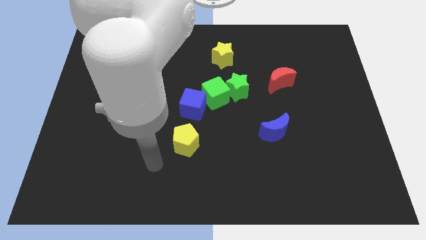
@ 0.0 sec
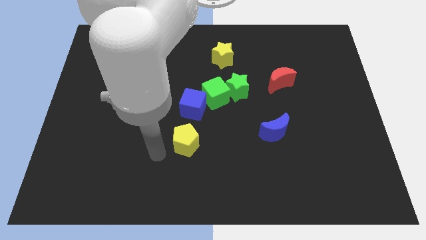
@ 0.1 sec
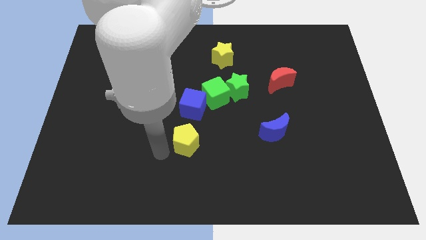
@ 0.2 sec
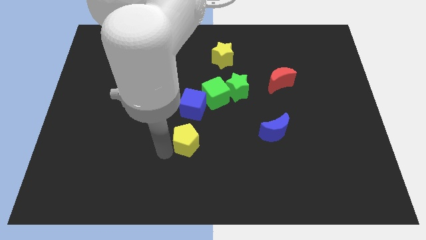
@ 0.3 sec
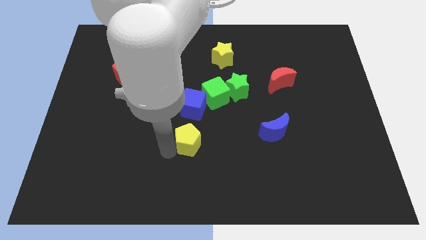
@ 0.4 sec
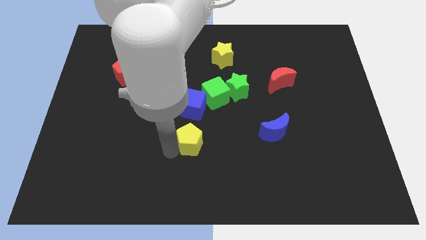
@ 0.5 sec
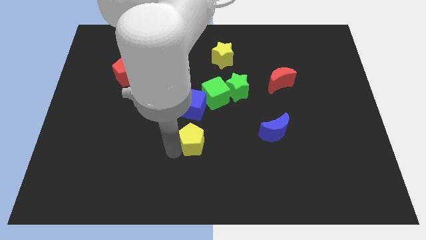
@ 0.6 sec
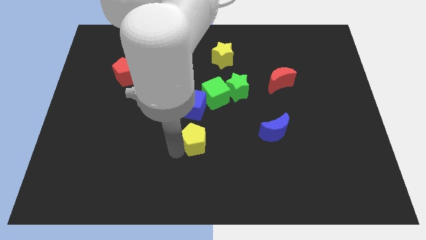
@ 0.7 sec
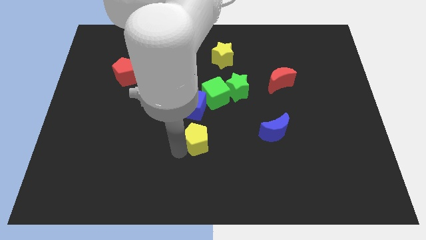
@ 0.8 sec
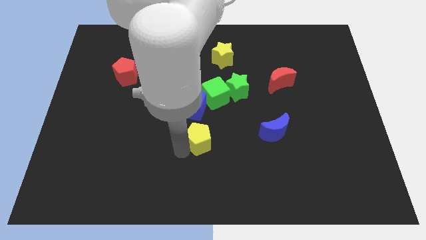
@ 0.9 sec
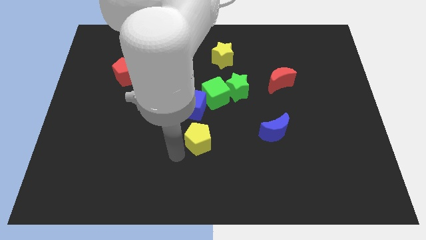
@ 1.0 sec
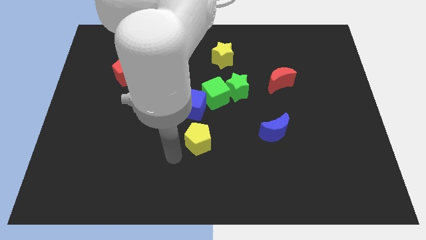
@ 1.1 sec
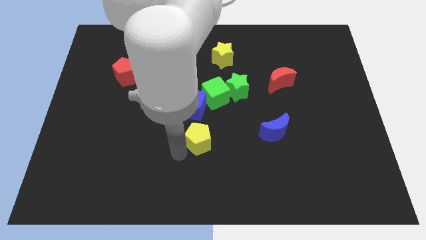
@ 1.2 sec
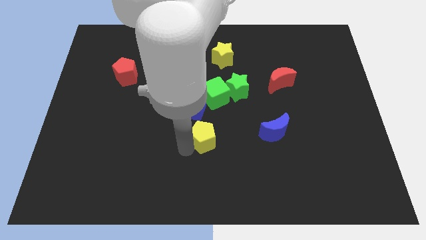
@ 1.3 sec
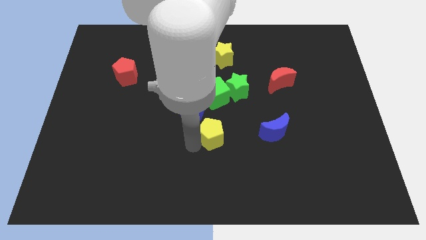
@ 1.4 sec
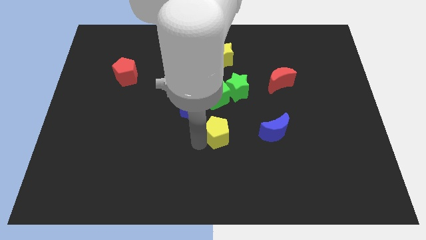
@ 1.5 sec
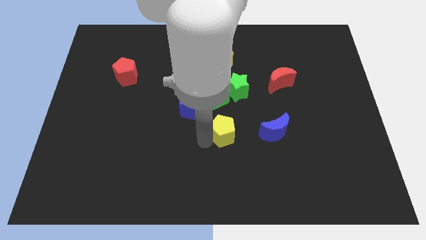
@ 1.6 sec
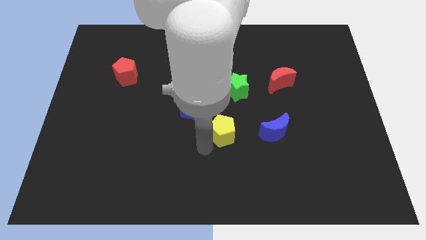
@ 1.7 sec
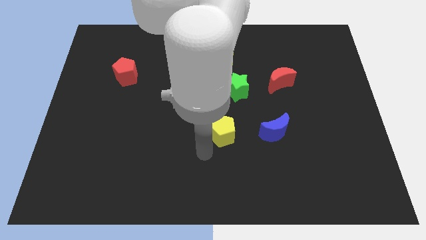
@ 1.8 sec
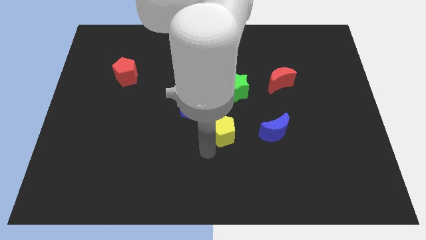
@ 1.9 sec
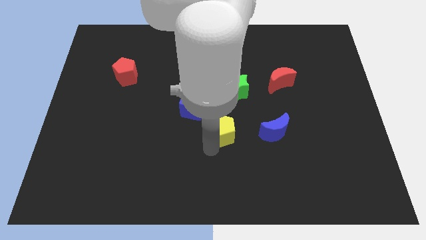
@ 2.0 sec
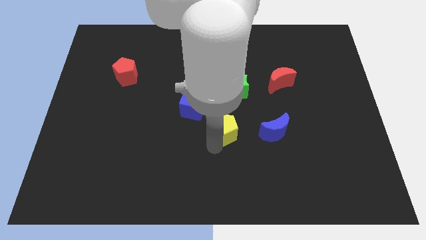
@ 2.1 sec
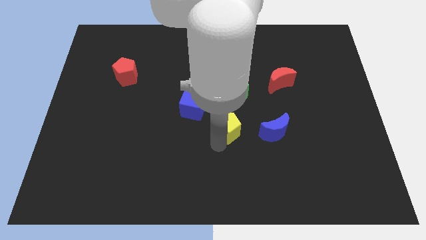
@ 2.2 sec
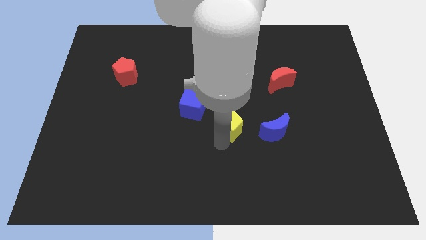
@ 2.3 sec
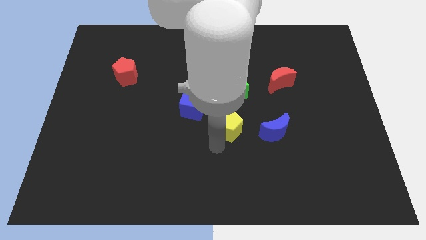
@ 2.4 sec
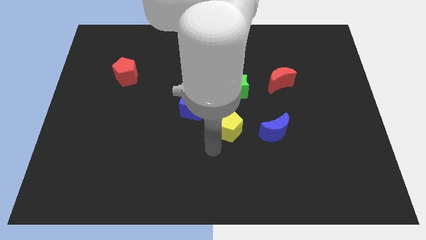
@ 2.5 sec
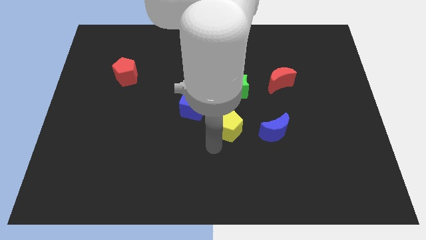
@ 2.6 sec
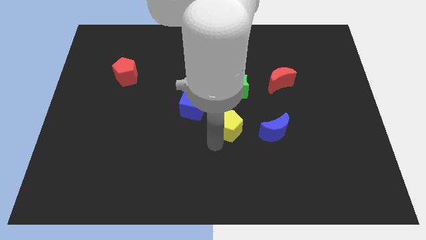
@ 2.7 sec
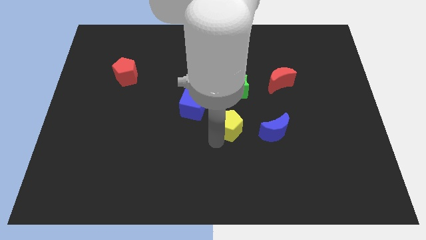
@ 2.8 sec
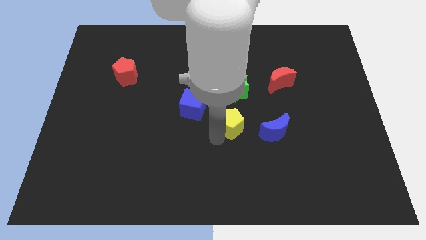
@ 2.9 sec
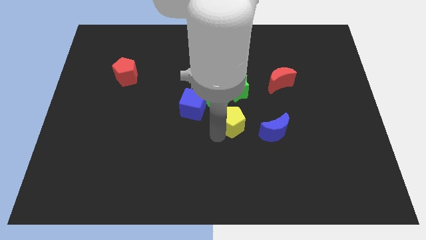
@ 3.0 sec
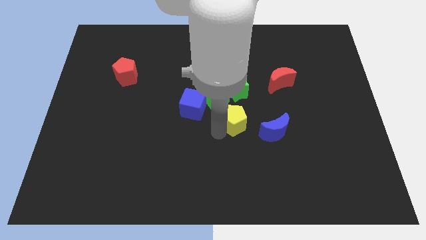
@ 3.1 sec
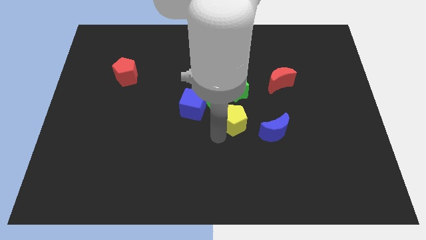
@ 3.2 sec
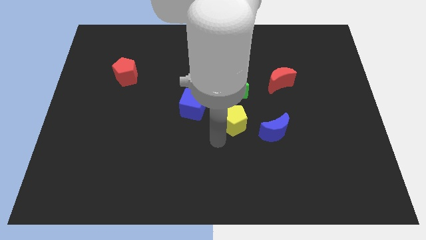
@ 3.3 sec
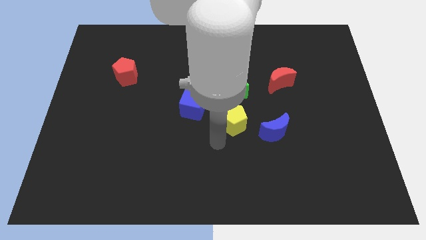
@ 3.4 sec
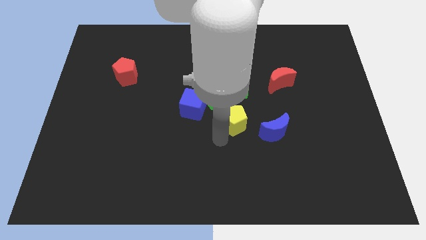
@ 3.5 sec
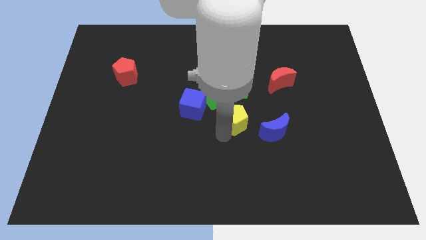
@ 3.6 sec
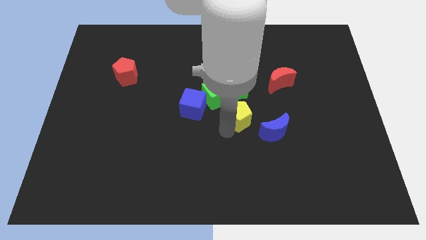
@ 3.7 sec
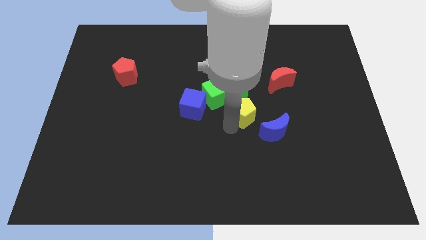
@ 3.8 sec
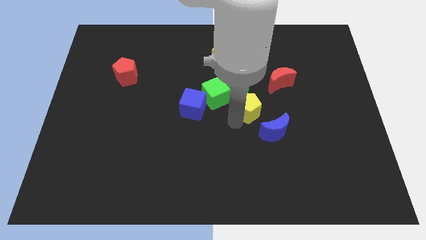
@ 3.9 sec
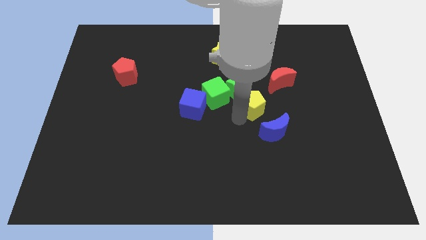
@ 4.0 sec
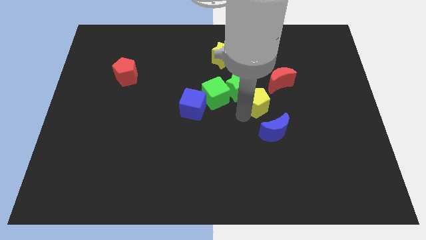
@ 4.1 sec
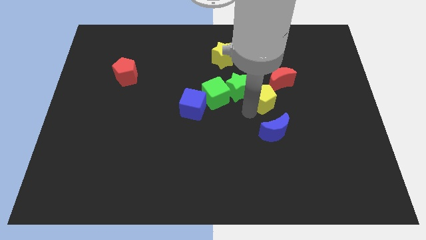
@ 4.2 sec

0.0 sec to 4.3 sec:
push the yellow pentagon diagonally upwards and to the right

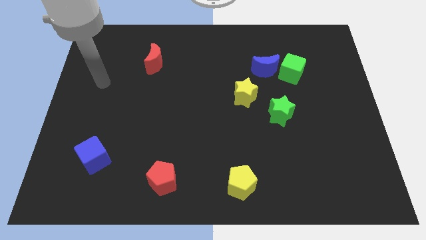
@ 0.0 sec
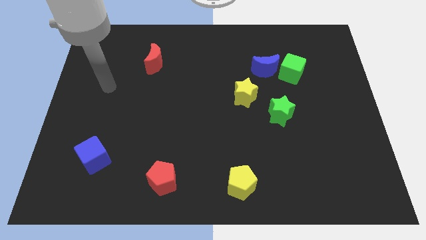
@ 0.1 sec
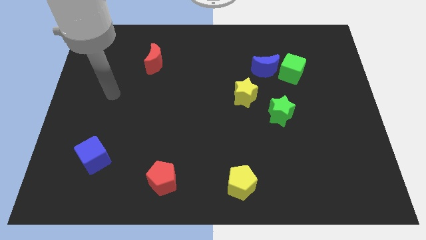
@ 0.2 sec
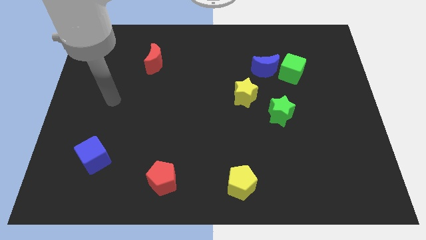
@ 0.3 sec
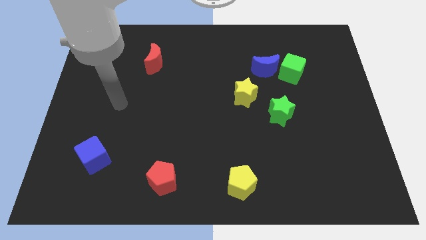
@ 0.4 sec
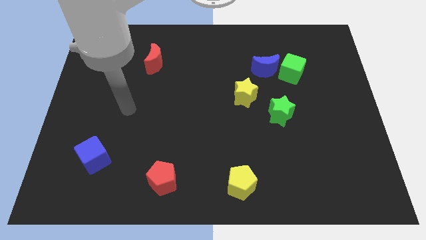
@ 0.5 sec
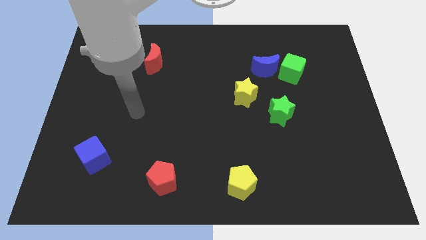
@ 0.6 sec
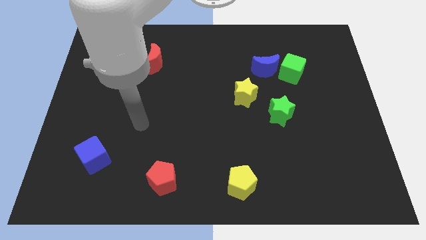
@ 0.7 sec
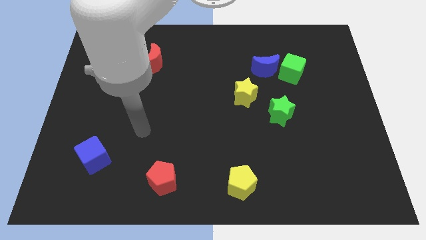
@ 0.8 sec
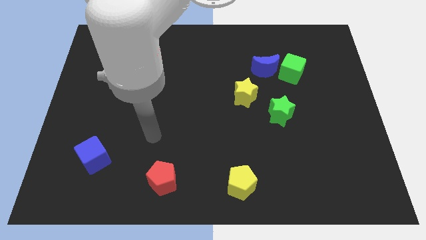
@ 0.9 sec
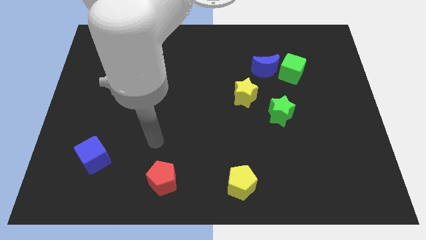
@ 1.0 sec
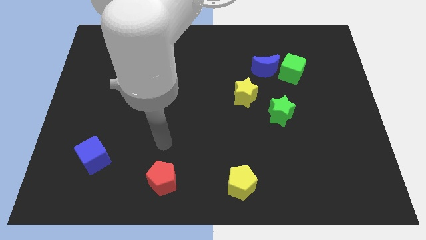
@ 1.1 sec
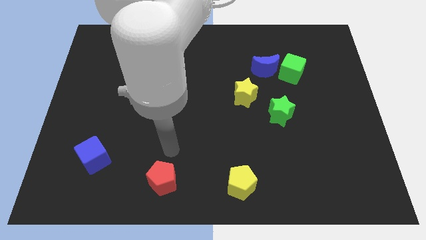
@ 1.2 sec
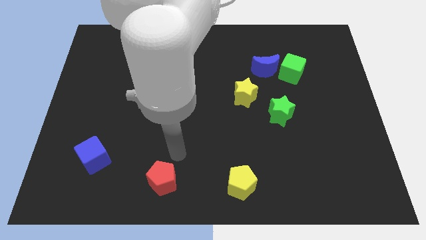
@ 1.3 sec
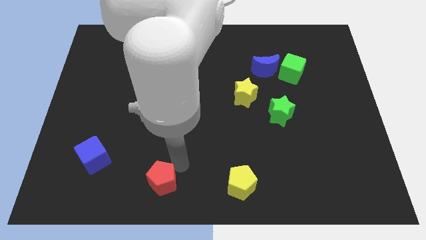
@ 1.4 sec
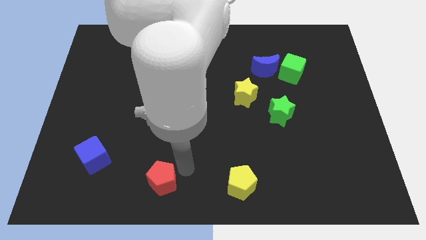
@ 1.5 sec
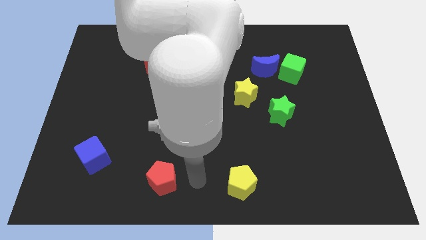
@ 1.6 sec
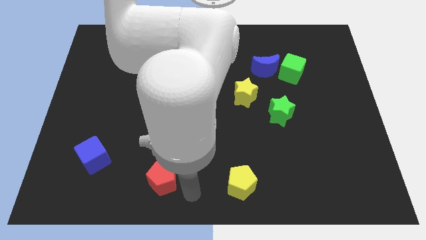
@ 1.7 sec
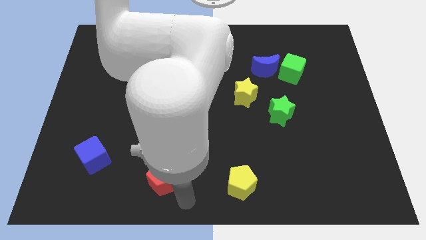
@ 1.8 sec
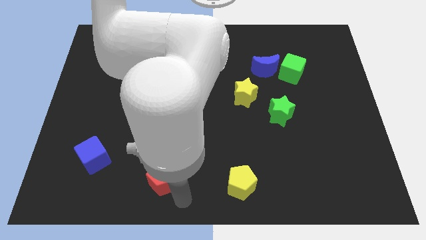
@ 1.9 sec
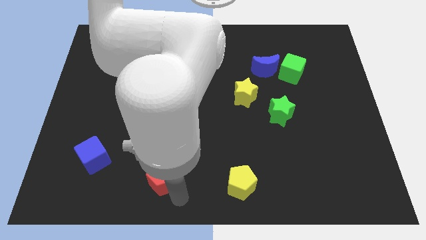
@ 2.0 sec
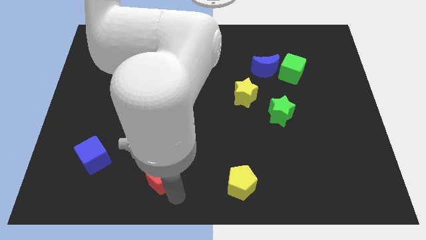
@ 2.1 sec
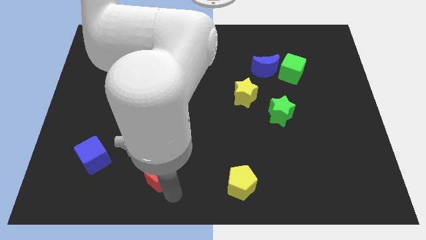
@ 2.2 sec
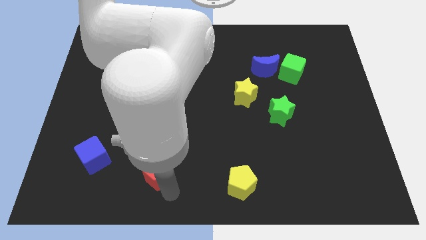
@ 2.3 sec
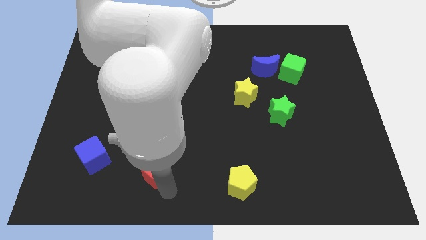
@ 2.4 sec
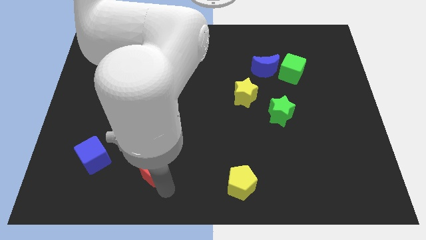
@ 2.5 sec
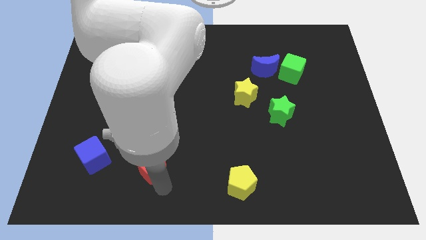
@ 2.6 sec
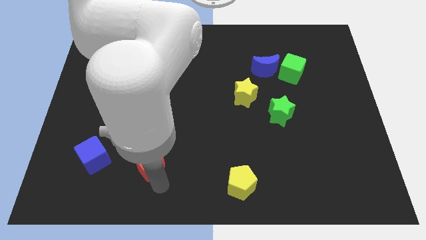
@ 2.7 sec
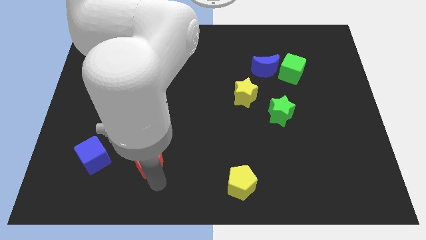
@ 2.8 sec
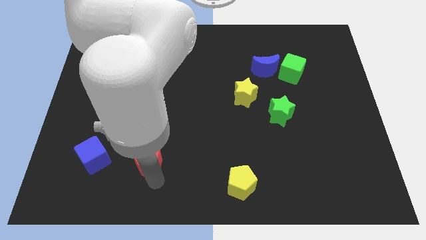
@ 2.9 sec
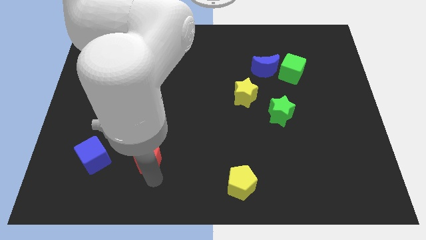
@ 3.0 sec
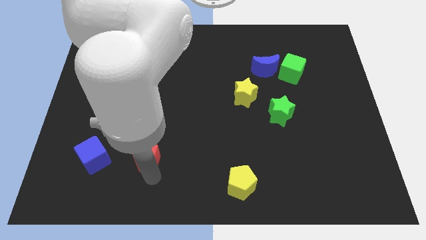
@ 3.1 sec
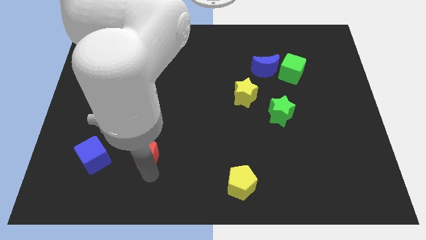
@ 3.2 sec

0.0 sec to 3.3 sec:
slightly slide the red pentagon upwards and left diagonally
